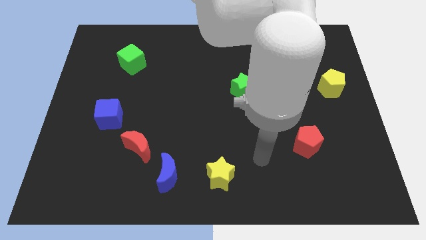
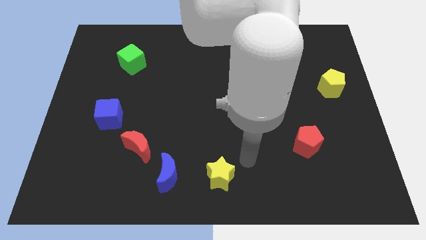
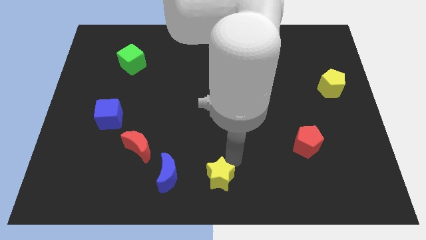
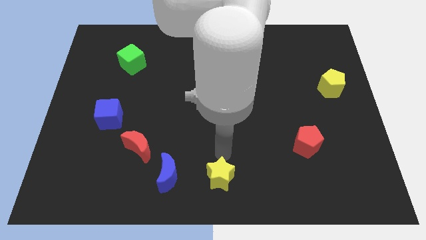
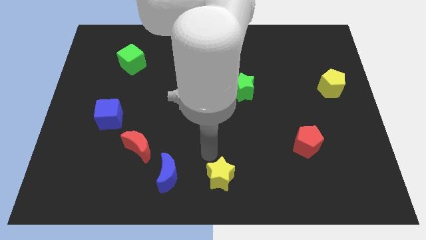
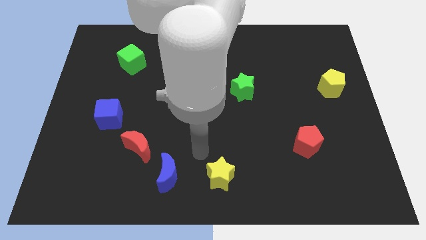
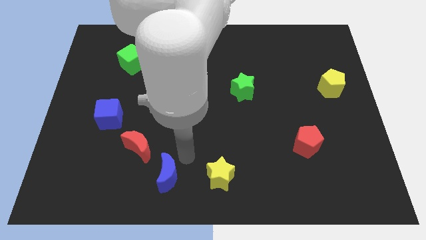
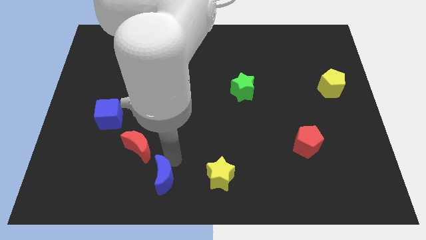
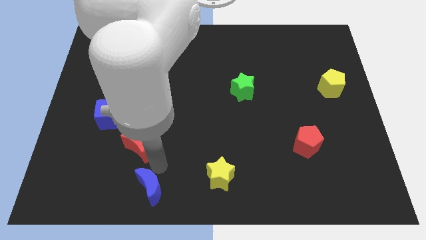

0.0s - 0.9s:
separate the red moon from the blue moon

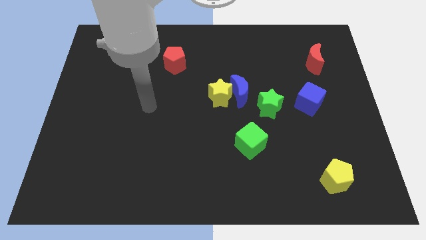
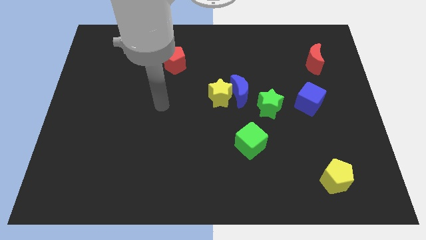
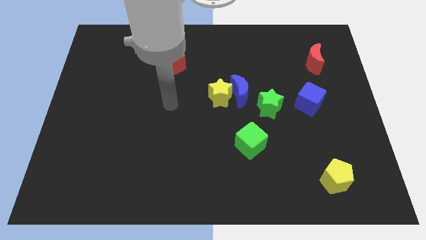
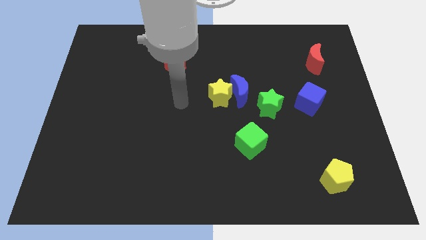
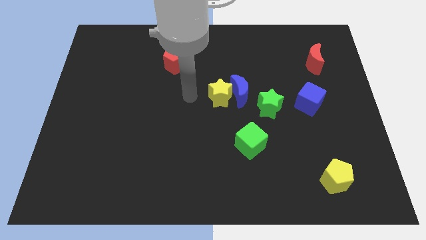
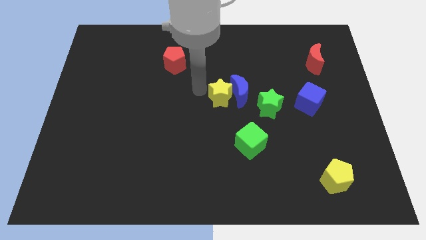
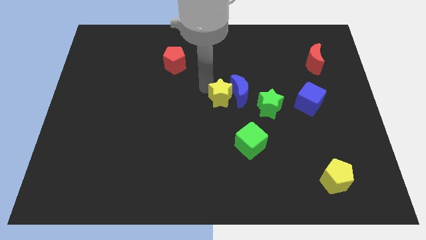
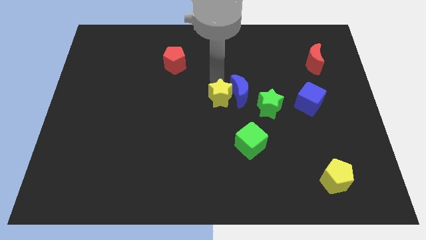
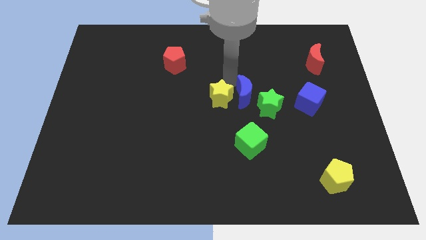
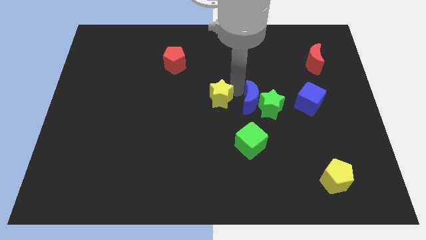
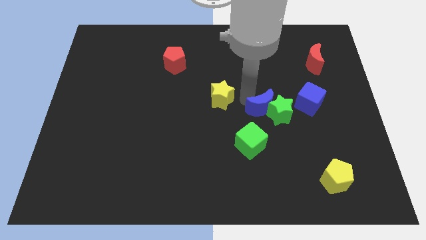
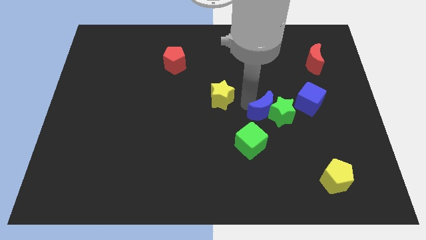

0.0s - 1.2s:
move the yellow star away from the blue moon

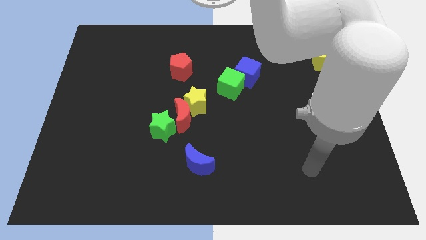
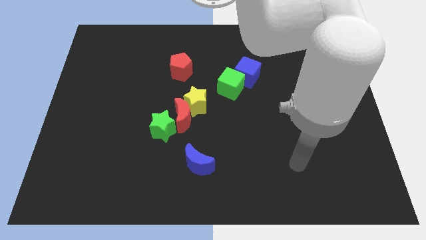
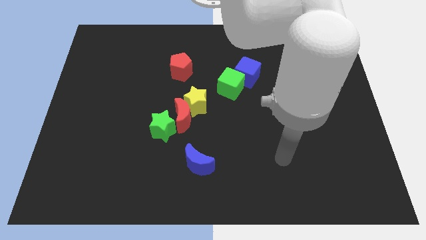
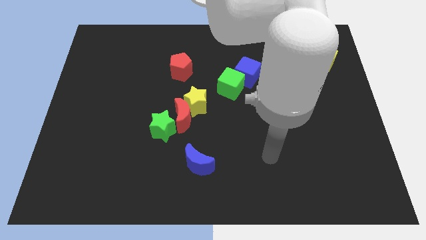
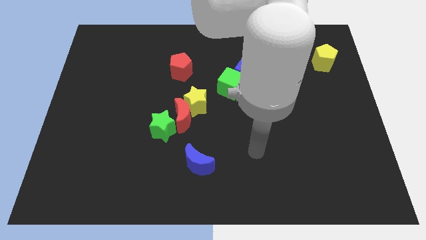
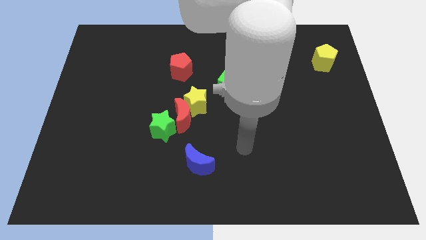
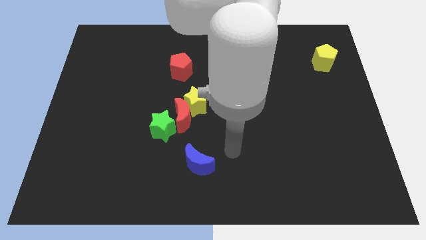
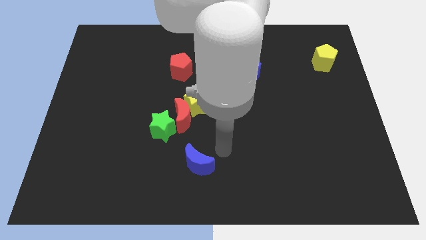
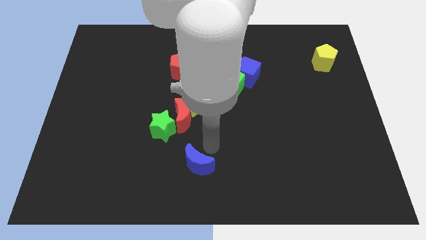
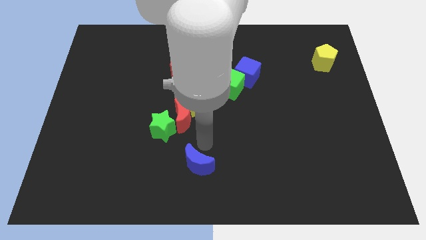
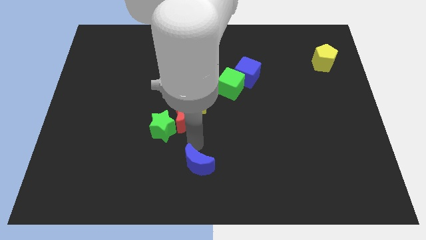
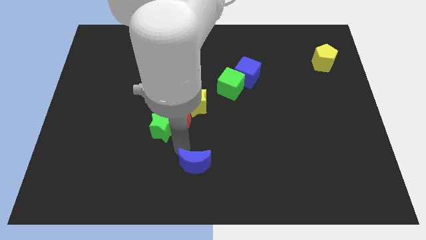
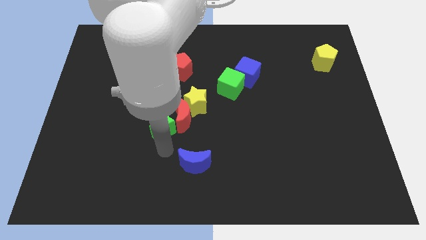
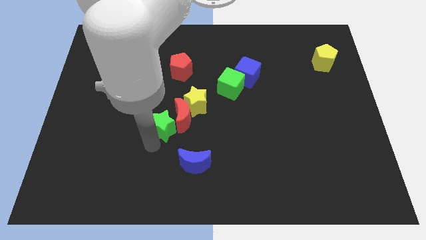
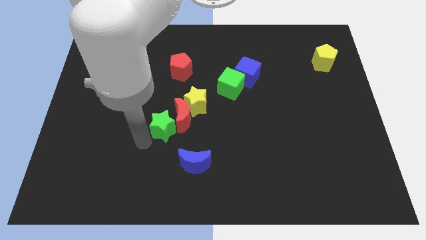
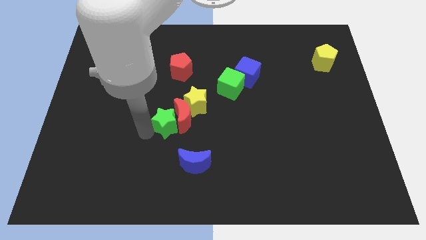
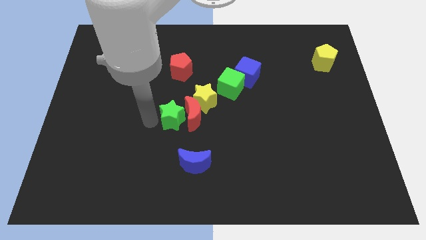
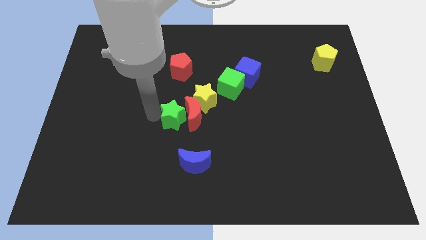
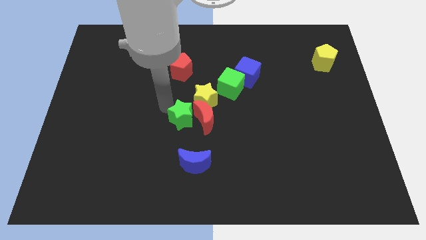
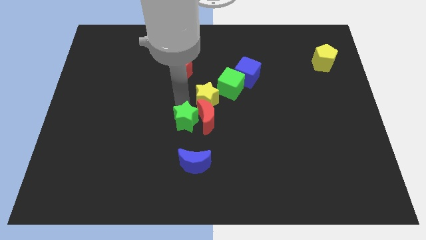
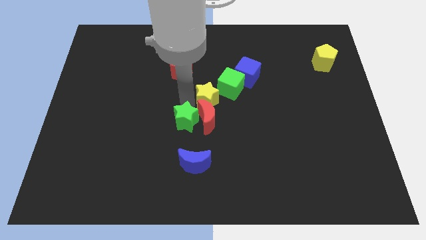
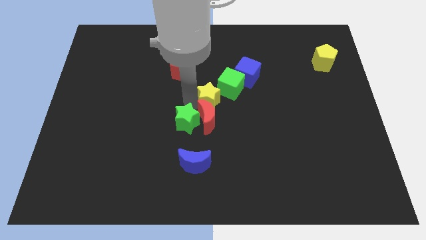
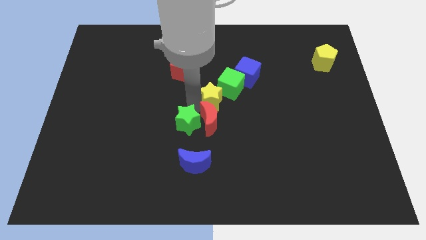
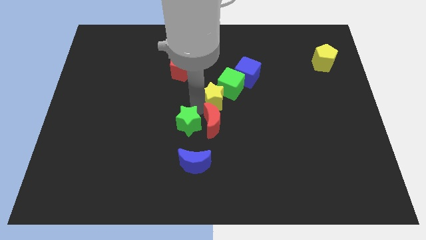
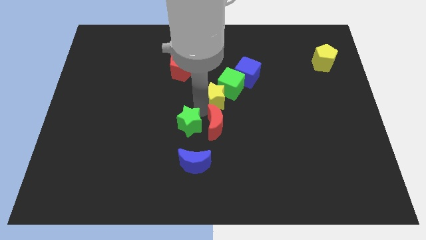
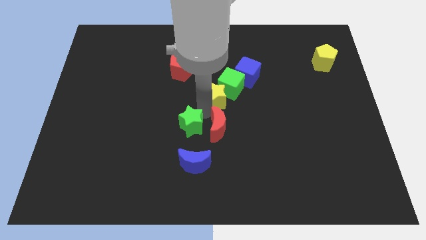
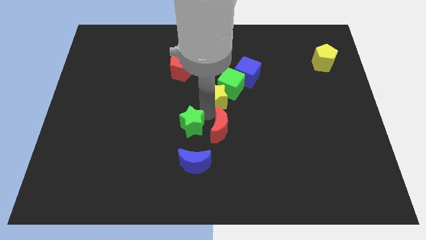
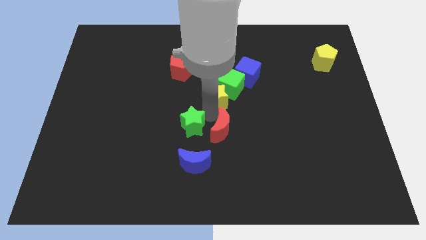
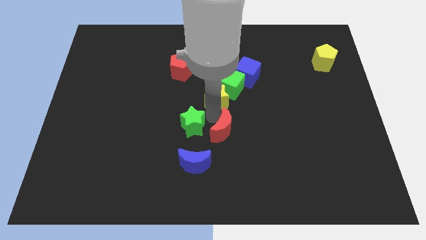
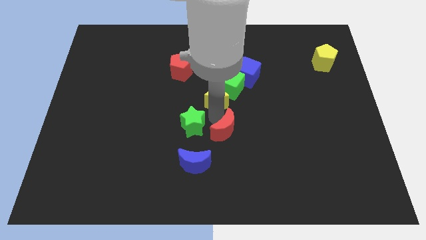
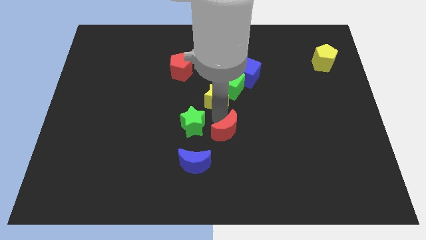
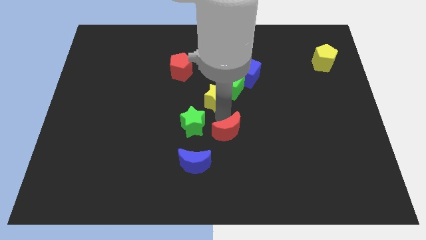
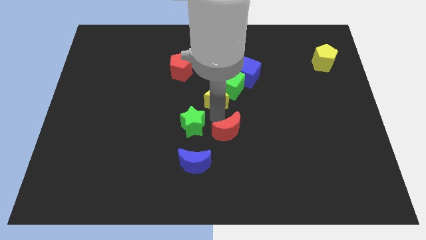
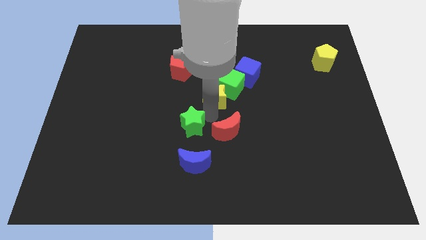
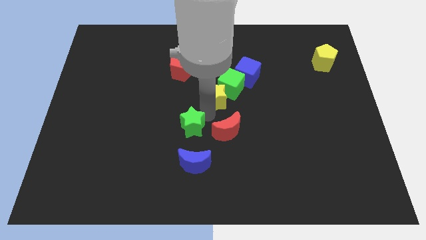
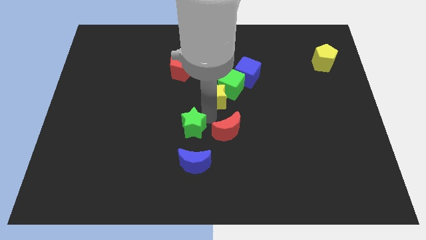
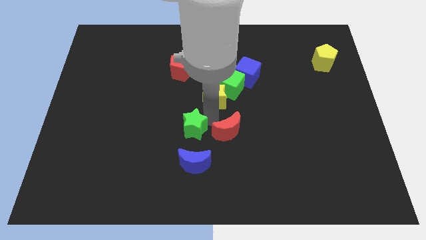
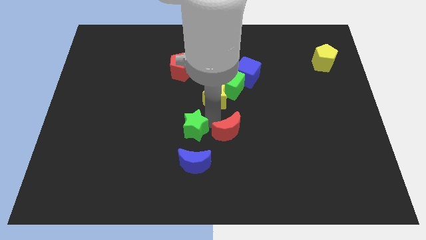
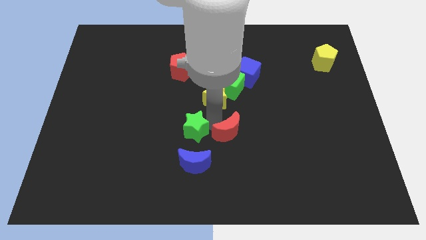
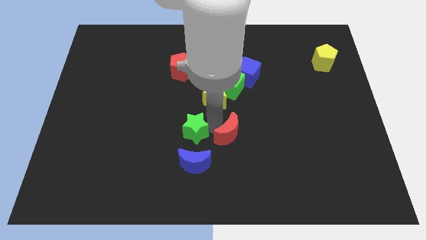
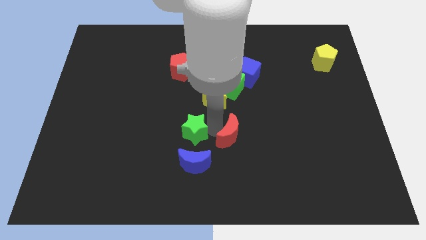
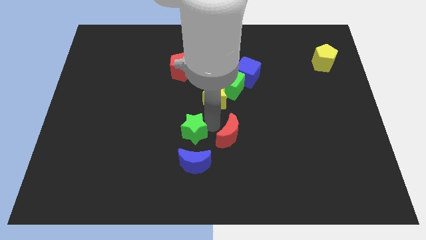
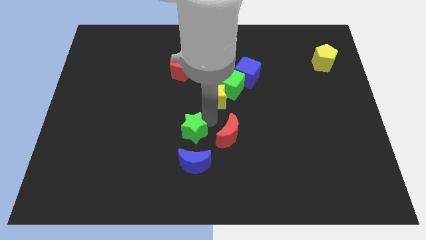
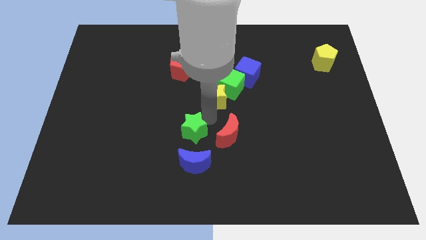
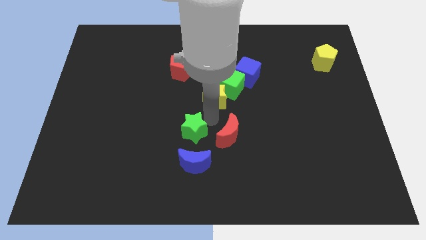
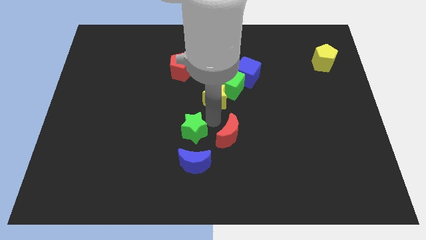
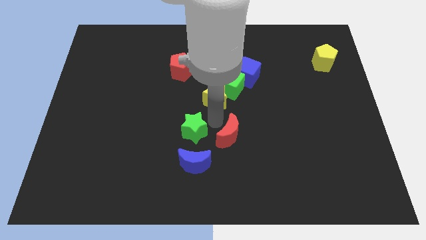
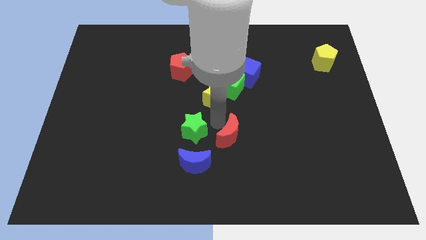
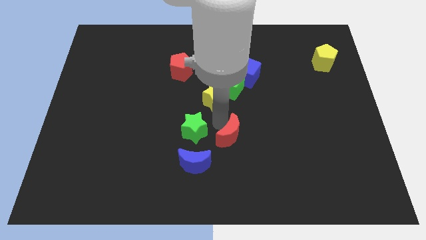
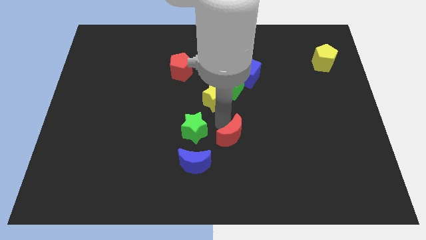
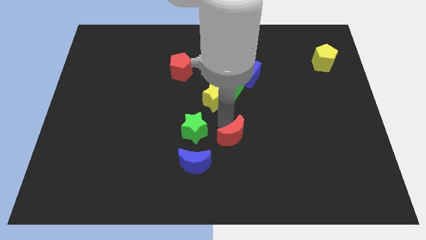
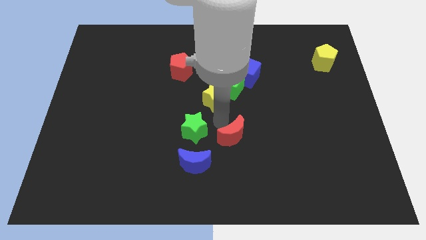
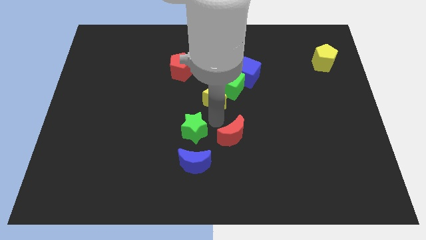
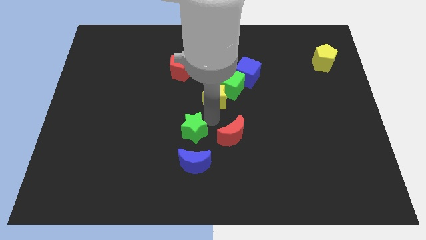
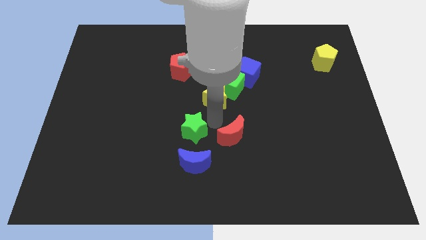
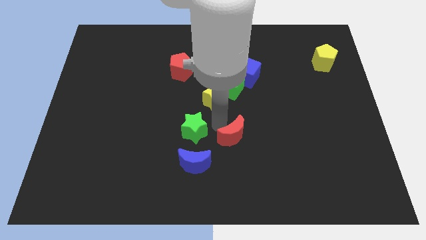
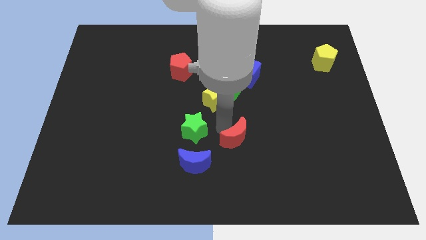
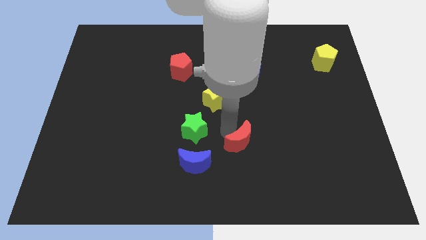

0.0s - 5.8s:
pull the red moon apart from the yellow star and green star

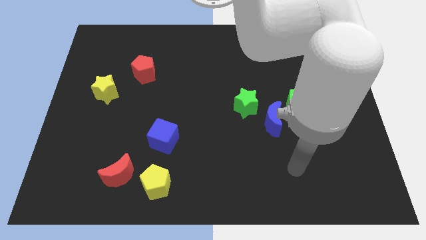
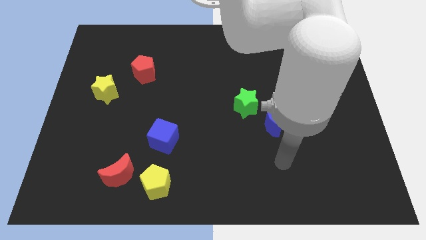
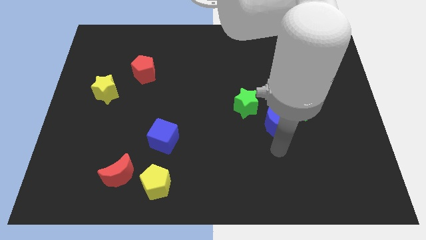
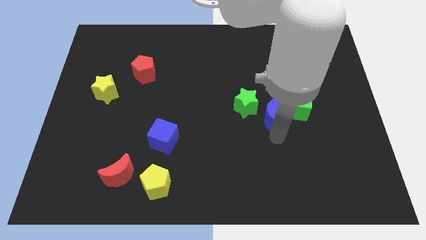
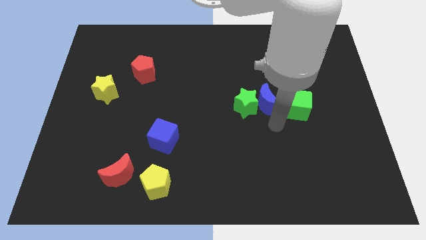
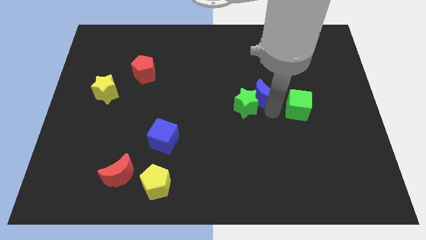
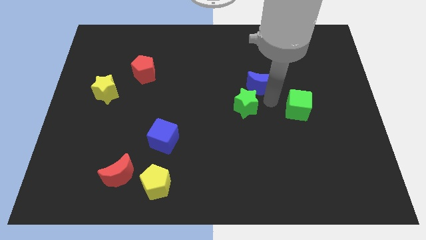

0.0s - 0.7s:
pull the green cube apart from the blue moon

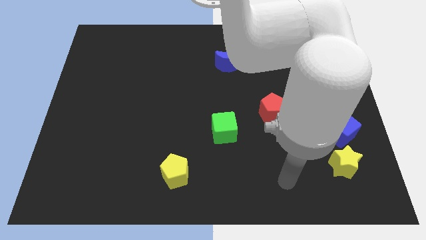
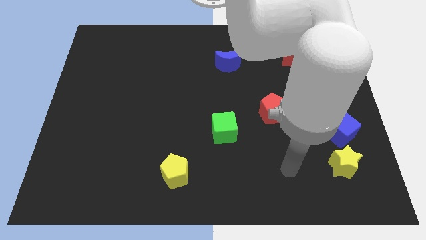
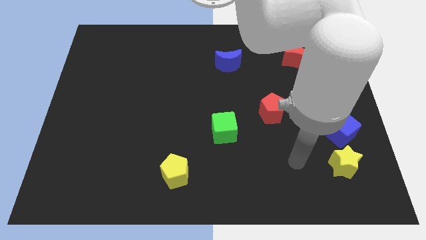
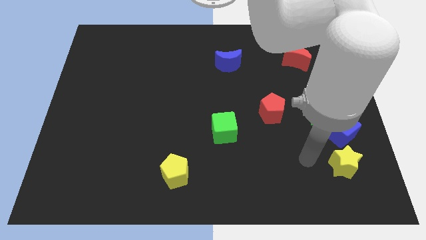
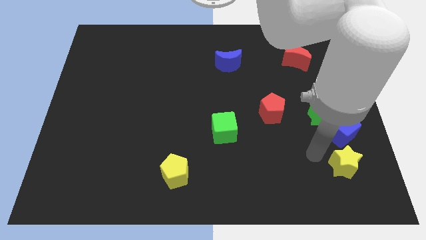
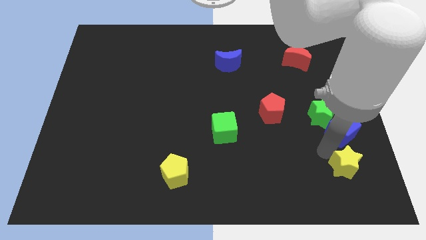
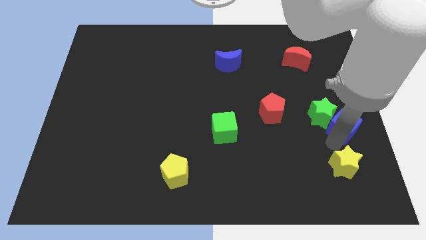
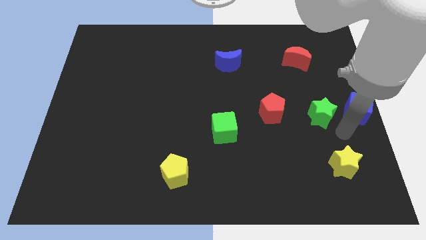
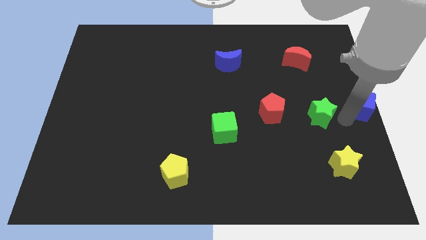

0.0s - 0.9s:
separate the green star from the blue cube
